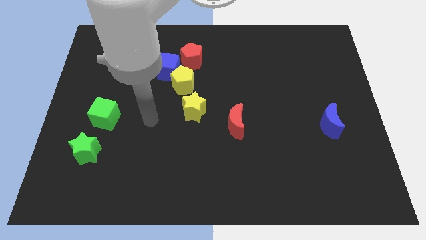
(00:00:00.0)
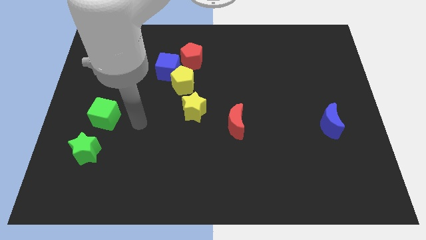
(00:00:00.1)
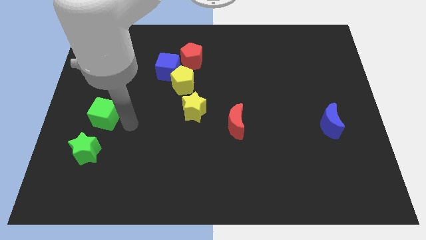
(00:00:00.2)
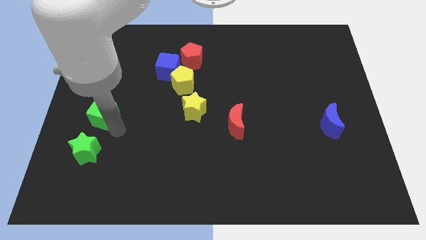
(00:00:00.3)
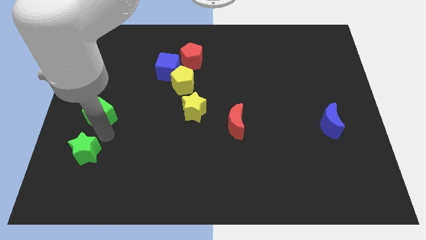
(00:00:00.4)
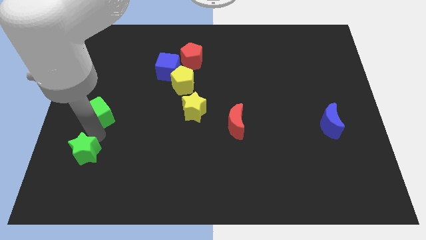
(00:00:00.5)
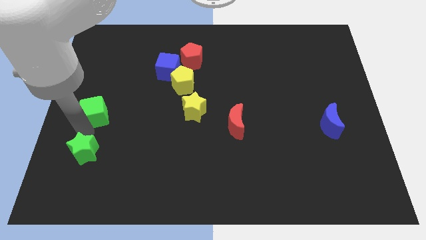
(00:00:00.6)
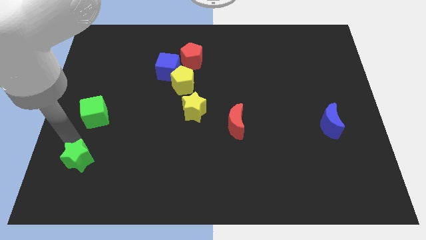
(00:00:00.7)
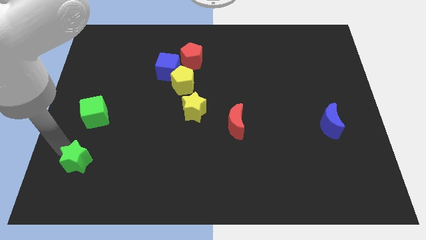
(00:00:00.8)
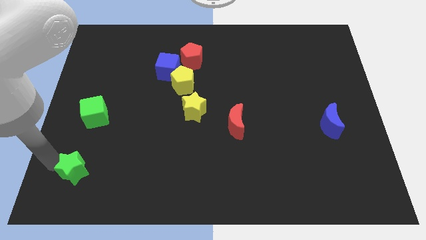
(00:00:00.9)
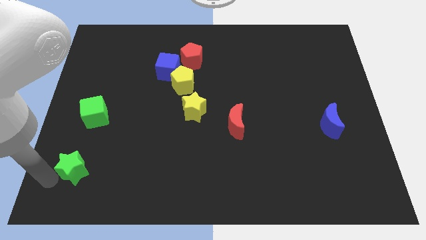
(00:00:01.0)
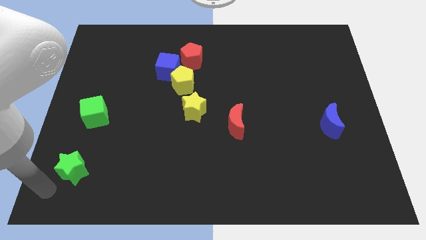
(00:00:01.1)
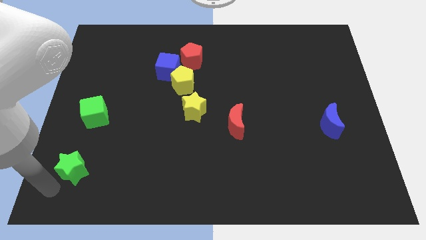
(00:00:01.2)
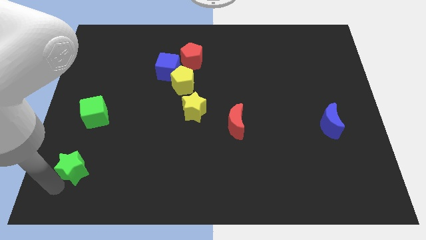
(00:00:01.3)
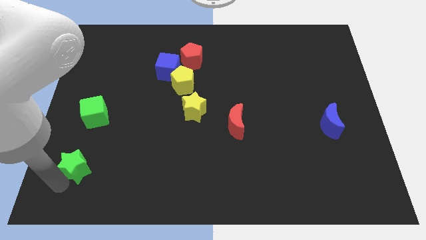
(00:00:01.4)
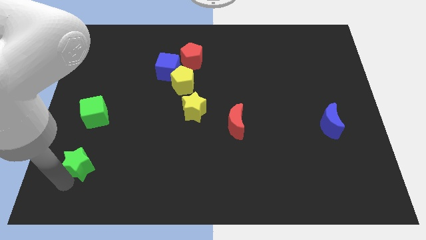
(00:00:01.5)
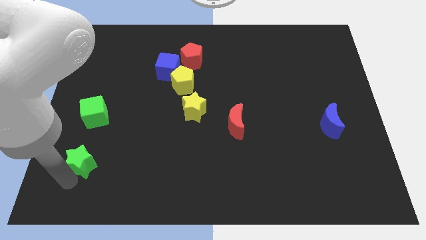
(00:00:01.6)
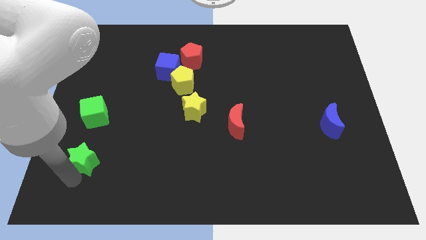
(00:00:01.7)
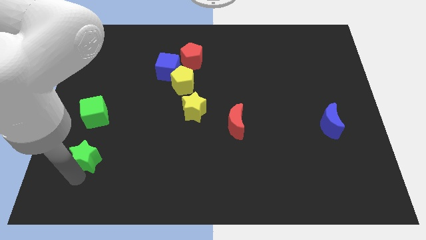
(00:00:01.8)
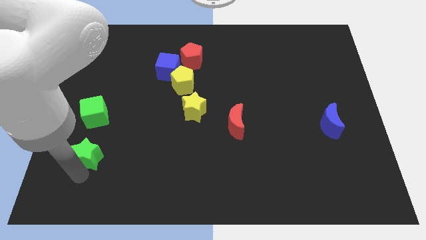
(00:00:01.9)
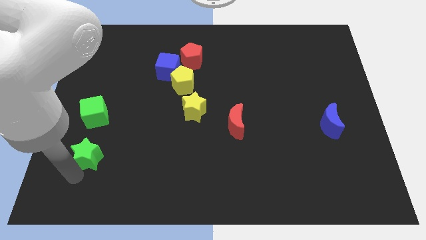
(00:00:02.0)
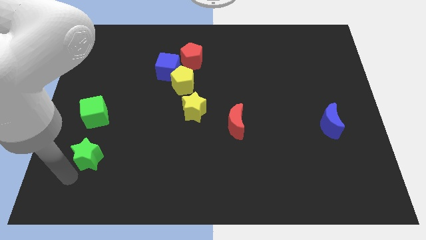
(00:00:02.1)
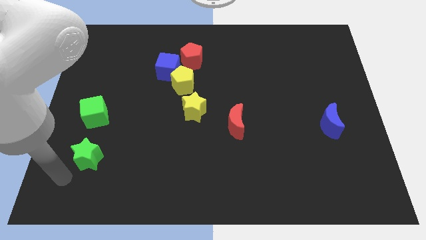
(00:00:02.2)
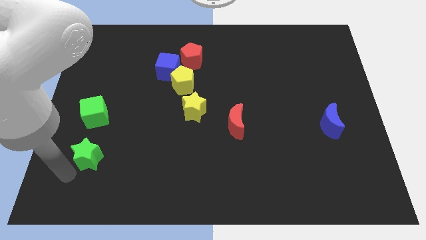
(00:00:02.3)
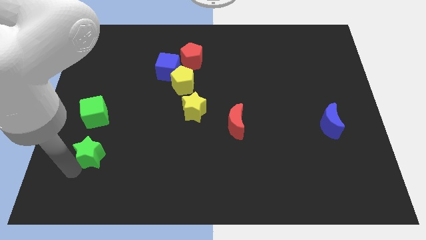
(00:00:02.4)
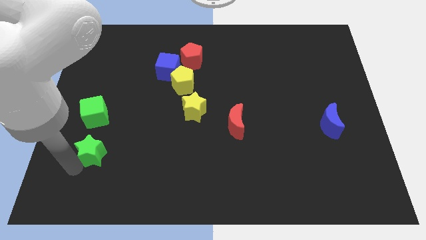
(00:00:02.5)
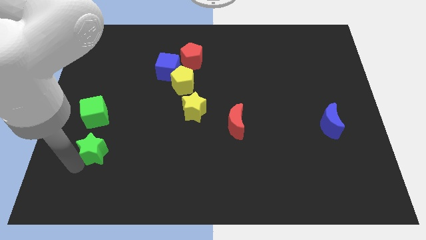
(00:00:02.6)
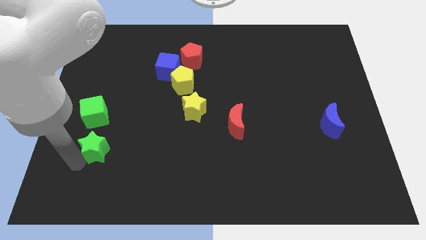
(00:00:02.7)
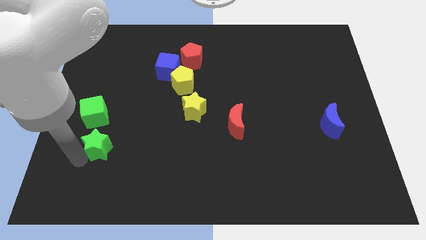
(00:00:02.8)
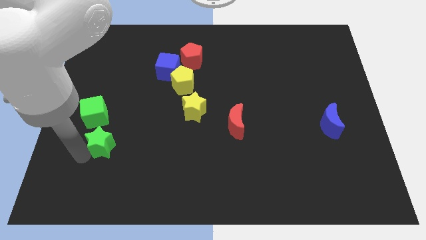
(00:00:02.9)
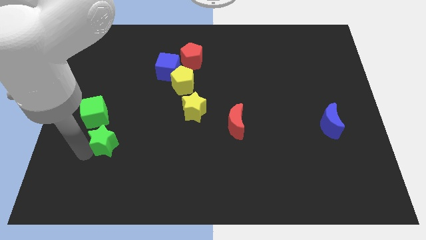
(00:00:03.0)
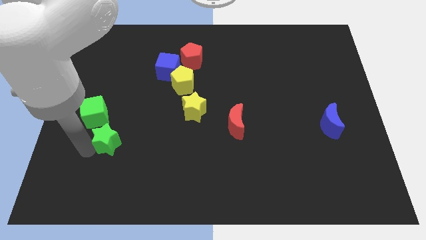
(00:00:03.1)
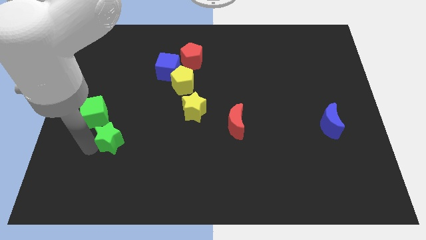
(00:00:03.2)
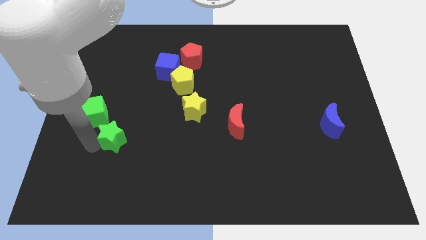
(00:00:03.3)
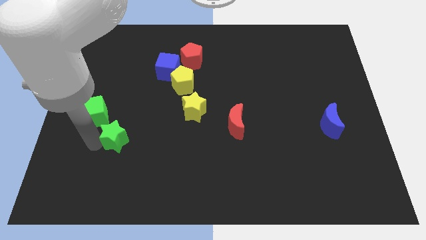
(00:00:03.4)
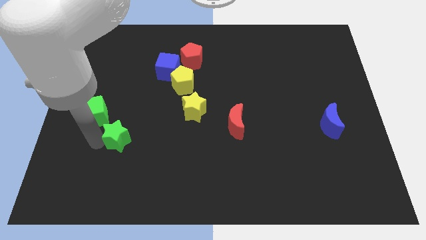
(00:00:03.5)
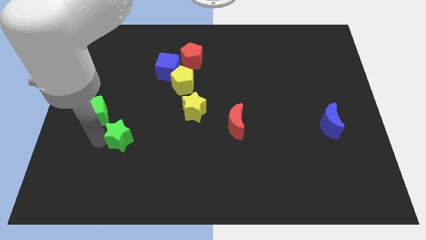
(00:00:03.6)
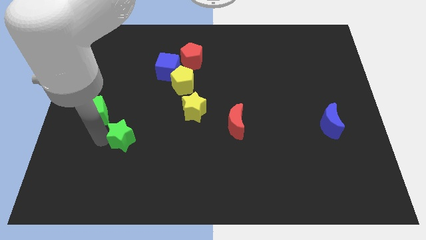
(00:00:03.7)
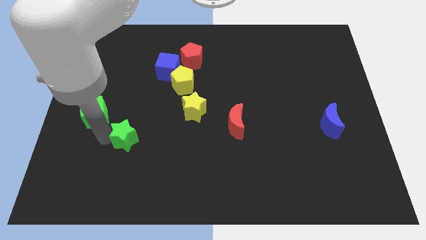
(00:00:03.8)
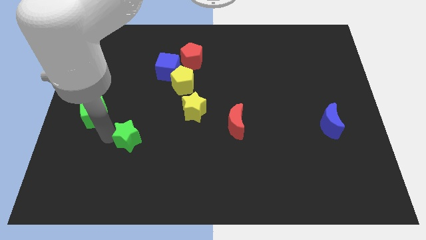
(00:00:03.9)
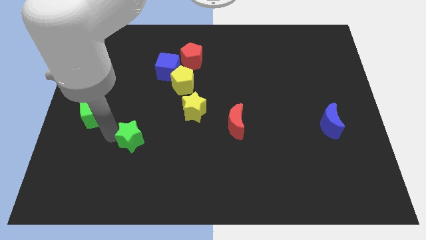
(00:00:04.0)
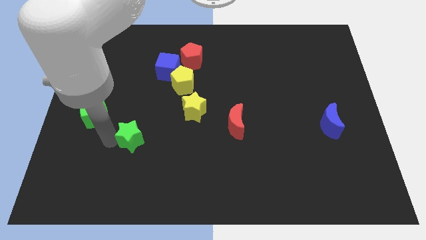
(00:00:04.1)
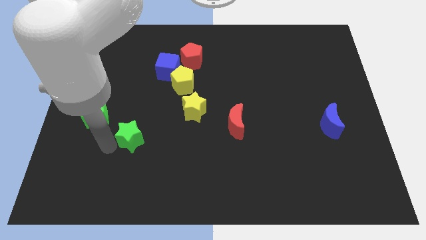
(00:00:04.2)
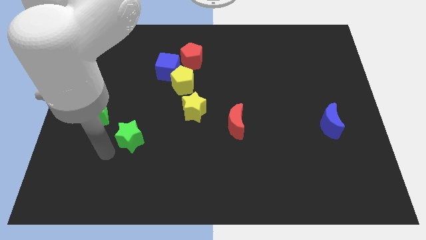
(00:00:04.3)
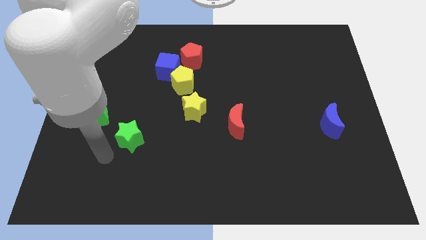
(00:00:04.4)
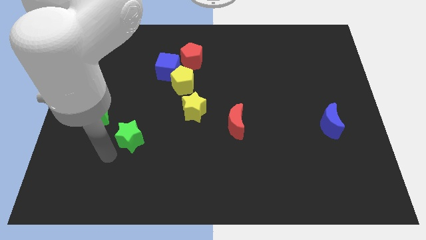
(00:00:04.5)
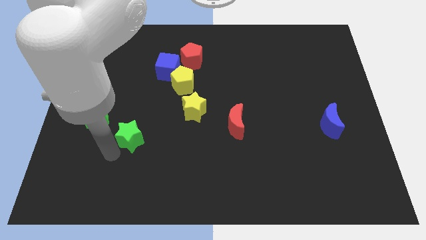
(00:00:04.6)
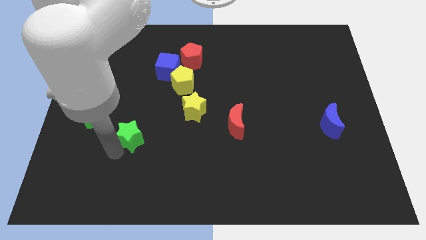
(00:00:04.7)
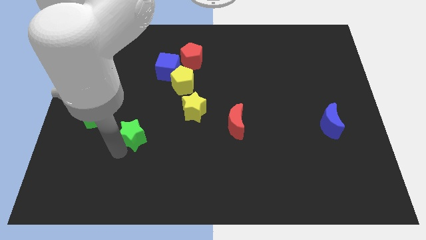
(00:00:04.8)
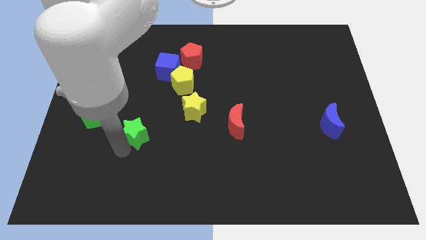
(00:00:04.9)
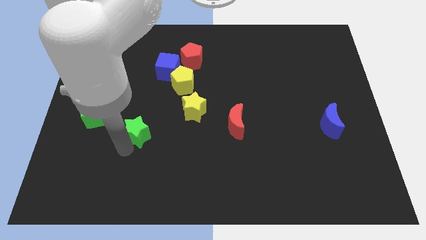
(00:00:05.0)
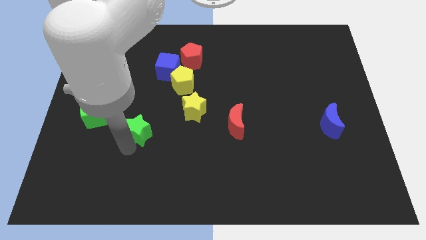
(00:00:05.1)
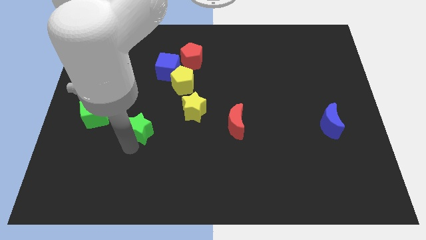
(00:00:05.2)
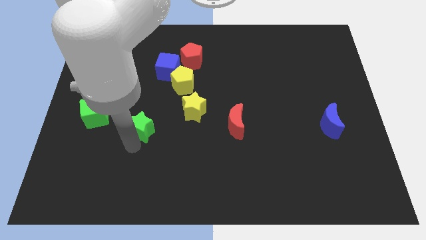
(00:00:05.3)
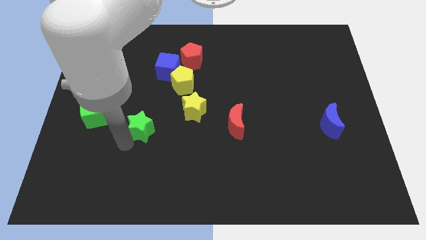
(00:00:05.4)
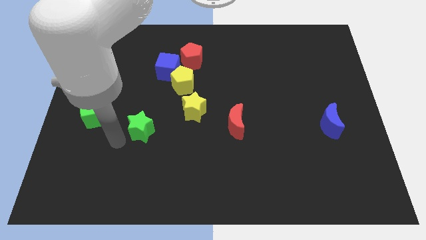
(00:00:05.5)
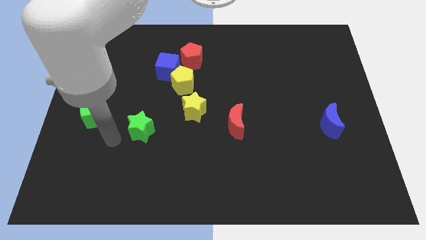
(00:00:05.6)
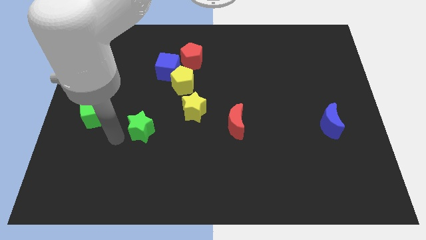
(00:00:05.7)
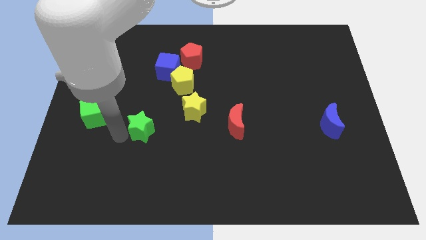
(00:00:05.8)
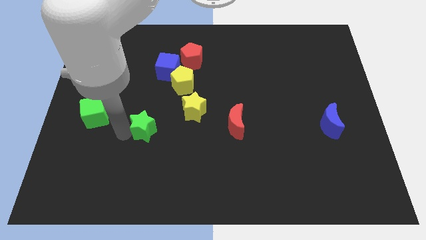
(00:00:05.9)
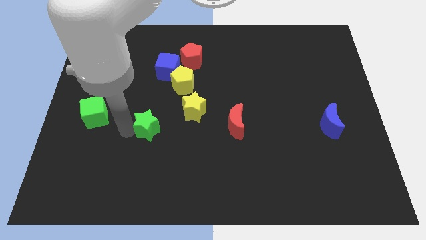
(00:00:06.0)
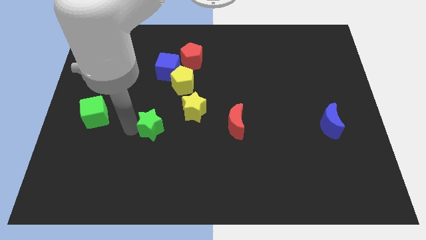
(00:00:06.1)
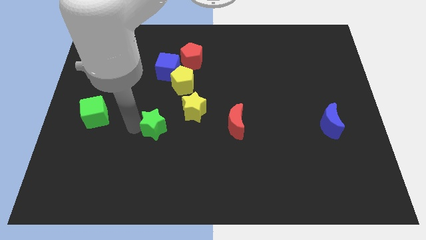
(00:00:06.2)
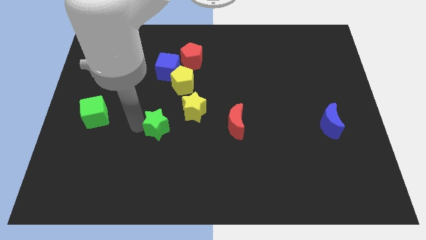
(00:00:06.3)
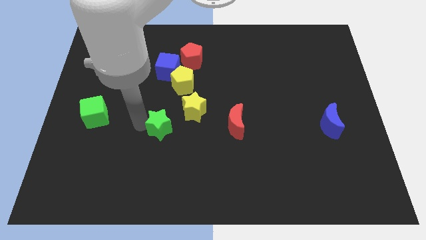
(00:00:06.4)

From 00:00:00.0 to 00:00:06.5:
move the green star to the bottom of the yellow pentagon

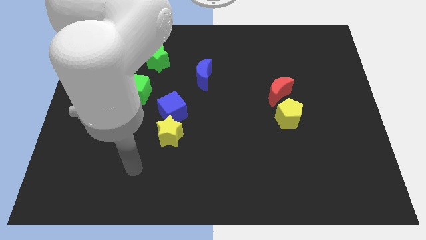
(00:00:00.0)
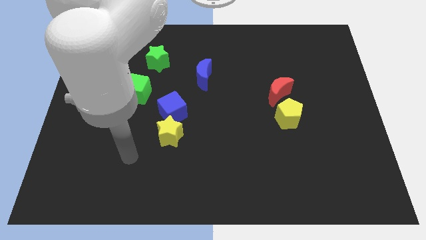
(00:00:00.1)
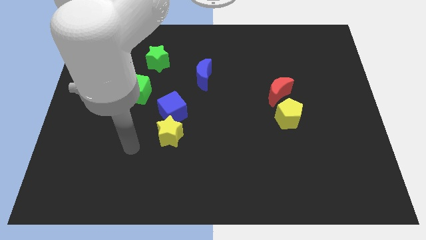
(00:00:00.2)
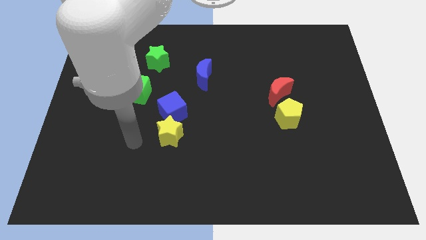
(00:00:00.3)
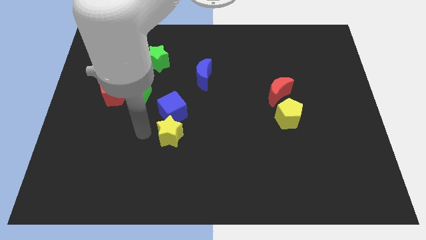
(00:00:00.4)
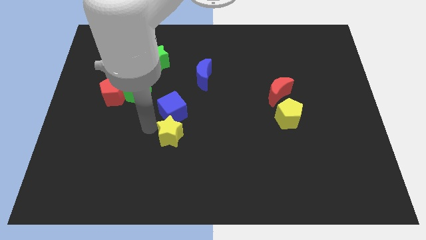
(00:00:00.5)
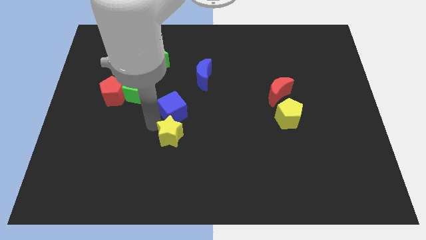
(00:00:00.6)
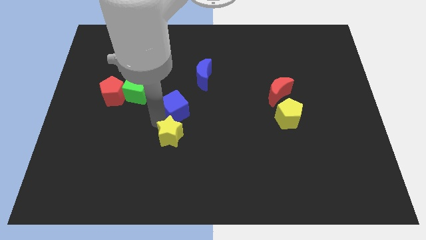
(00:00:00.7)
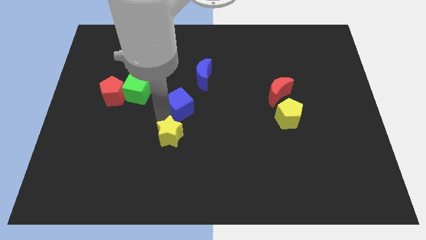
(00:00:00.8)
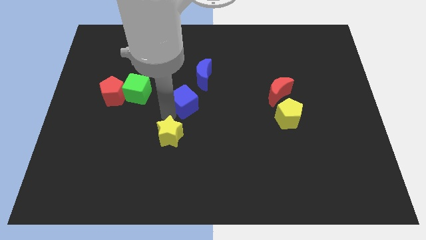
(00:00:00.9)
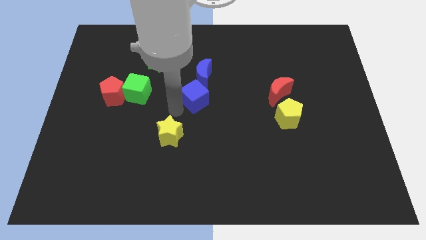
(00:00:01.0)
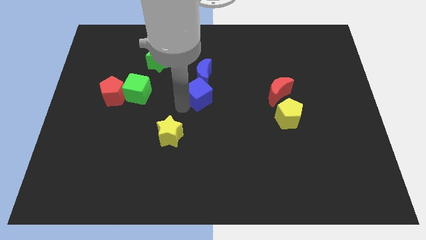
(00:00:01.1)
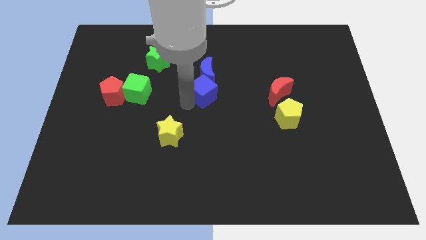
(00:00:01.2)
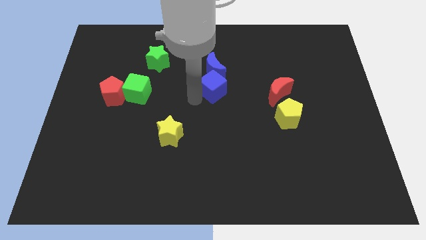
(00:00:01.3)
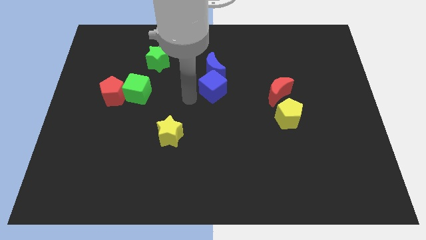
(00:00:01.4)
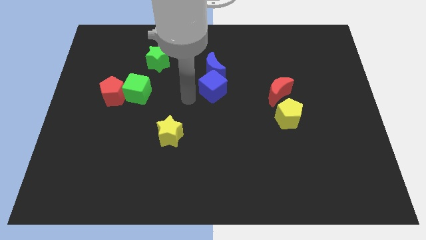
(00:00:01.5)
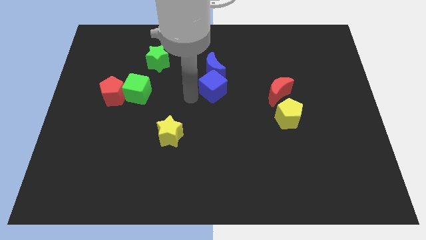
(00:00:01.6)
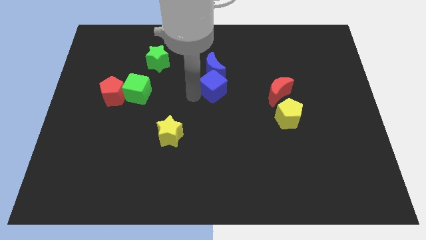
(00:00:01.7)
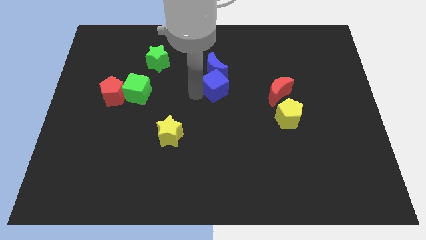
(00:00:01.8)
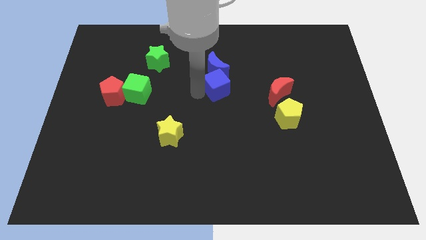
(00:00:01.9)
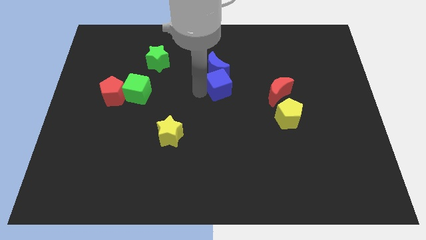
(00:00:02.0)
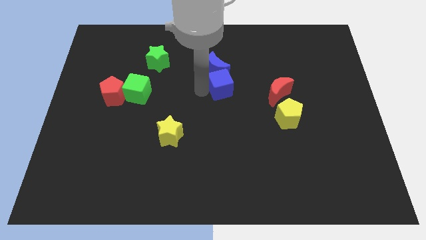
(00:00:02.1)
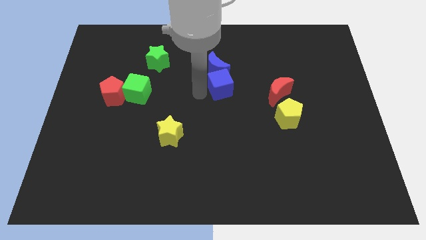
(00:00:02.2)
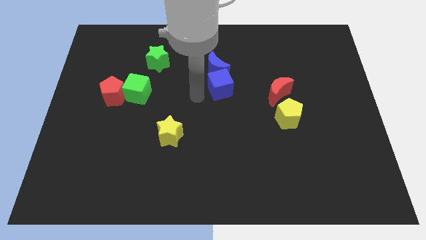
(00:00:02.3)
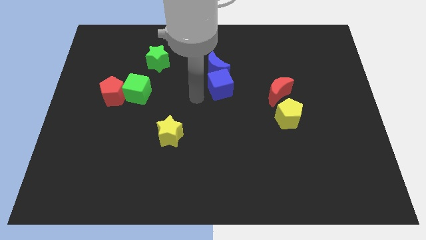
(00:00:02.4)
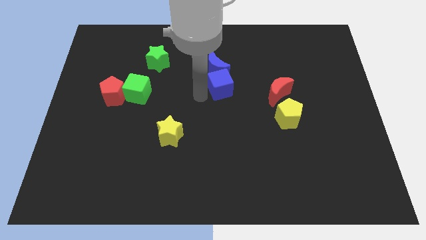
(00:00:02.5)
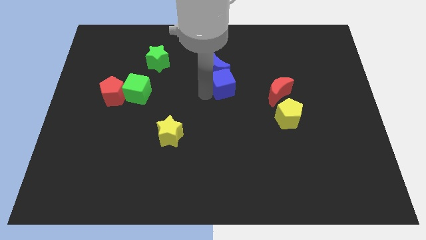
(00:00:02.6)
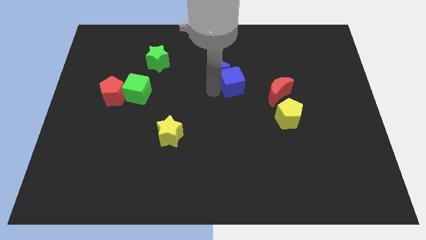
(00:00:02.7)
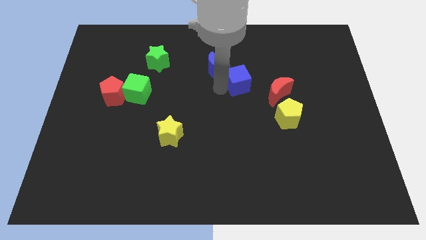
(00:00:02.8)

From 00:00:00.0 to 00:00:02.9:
put the blue cube diagonally up and to the left of the red moon
